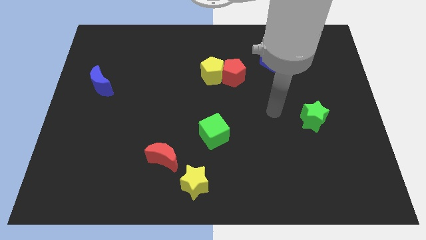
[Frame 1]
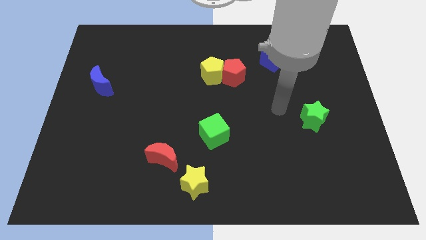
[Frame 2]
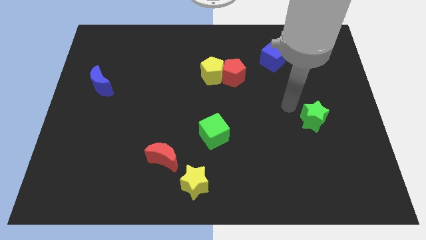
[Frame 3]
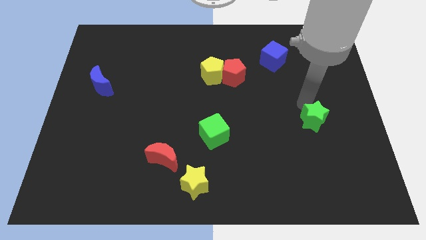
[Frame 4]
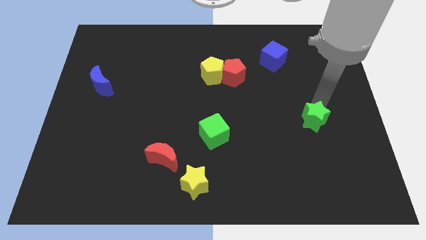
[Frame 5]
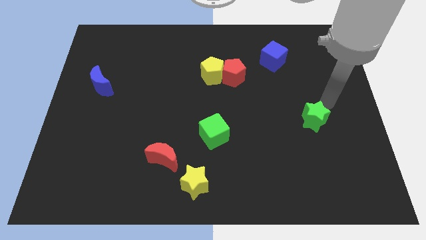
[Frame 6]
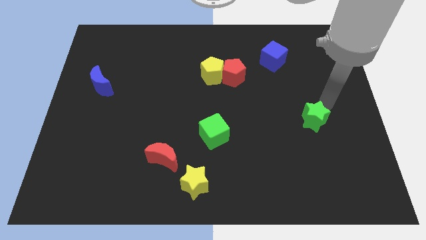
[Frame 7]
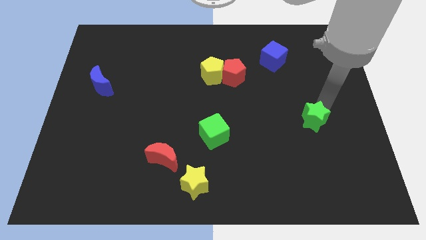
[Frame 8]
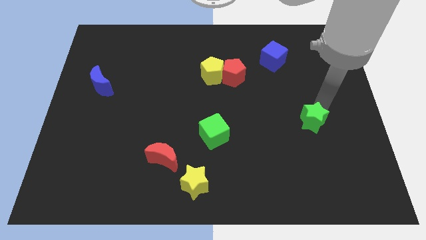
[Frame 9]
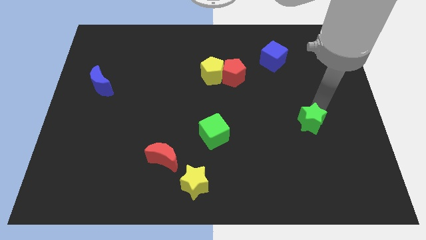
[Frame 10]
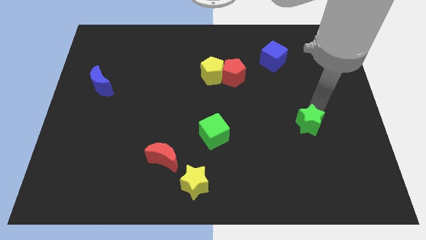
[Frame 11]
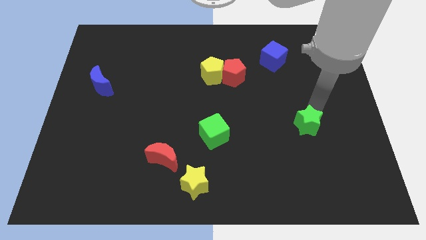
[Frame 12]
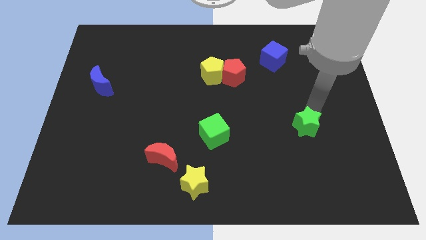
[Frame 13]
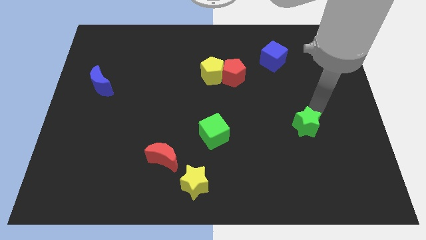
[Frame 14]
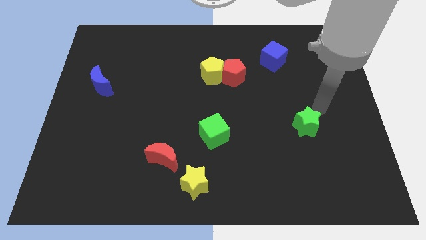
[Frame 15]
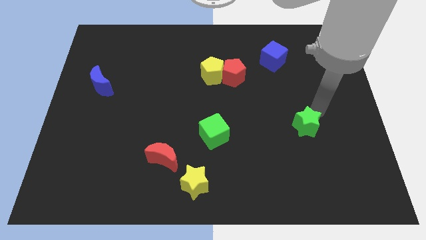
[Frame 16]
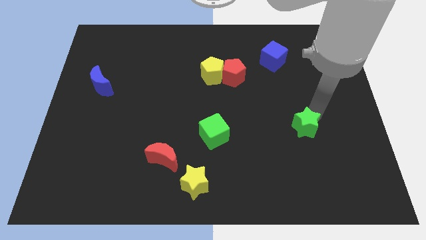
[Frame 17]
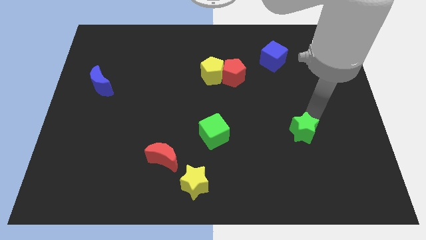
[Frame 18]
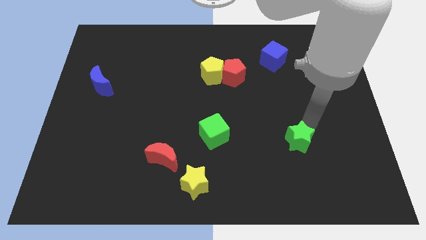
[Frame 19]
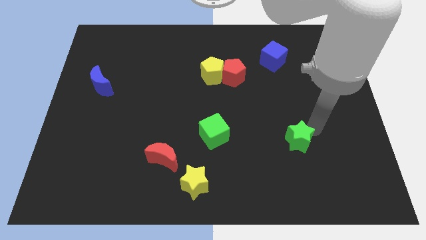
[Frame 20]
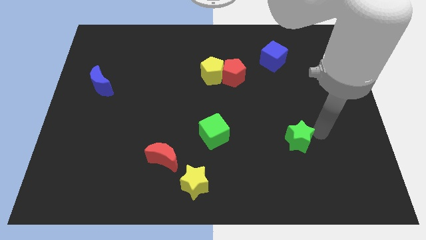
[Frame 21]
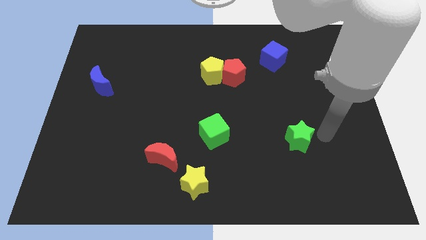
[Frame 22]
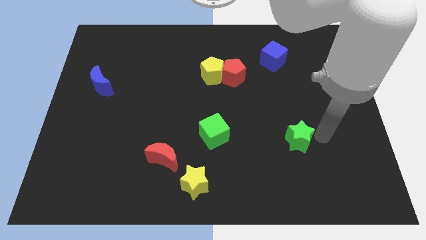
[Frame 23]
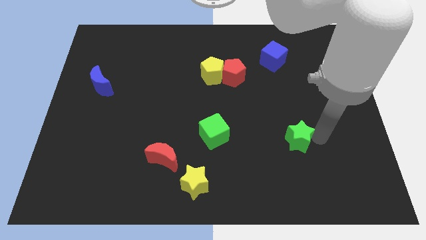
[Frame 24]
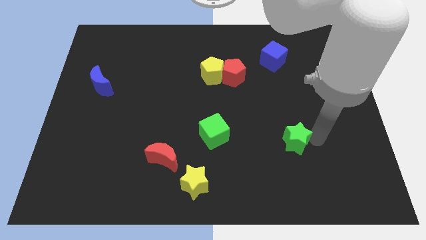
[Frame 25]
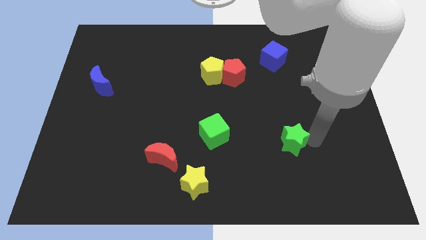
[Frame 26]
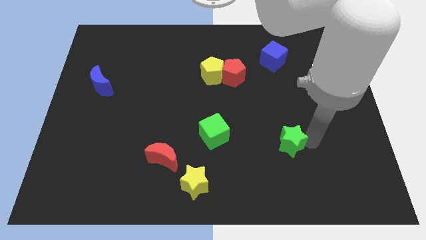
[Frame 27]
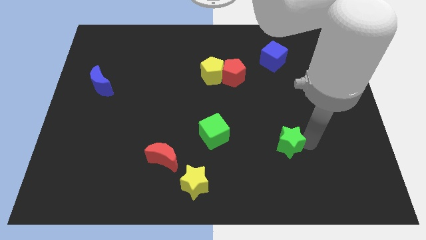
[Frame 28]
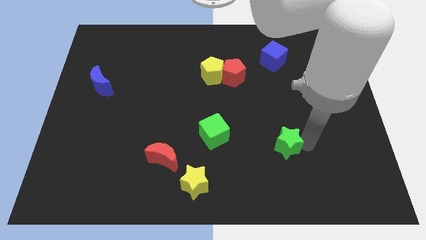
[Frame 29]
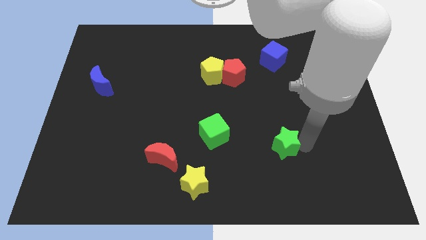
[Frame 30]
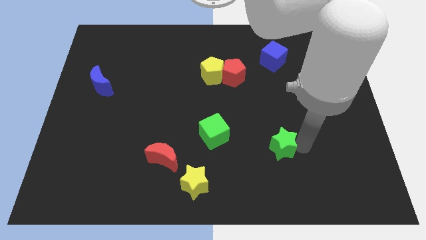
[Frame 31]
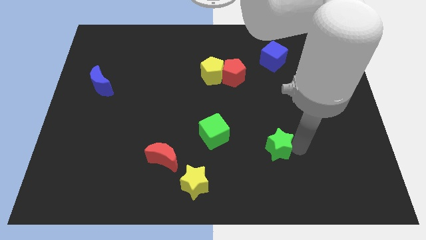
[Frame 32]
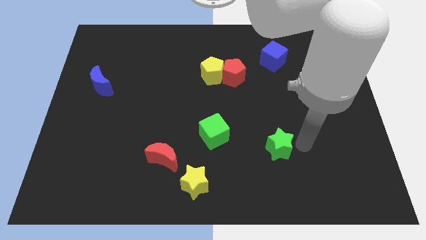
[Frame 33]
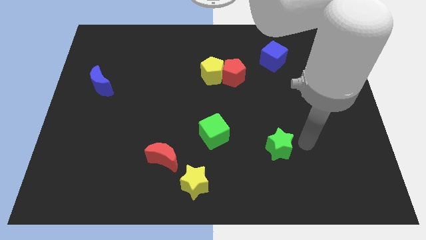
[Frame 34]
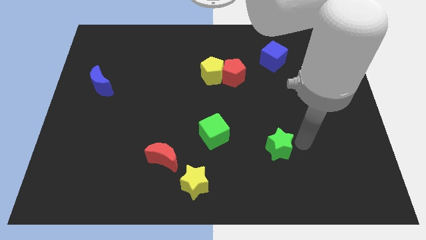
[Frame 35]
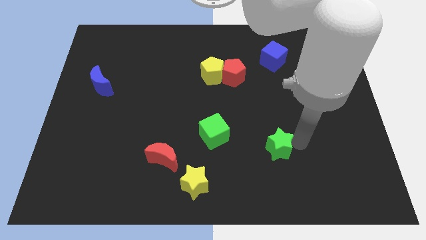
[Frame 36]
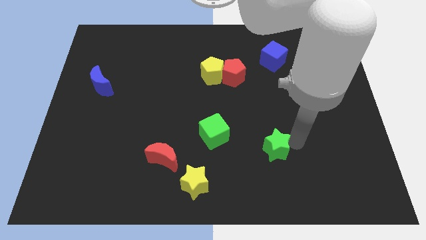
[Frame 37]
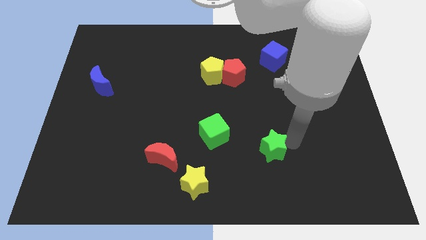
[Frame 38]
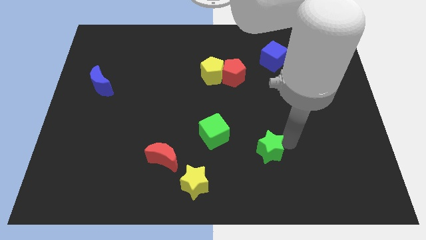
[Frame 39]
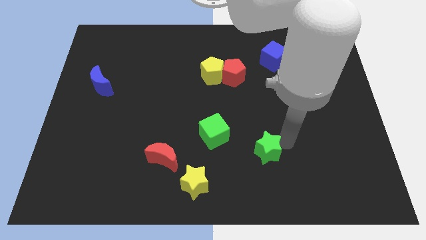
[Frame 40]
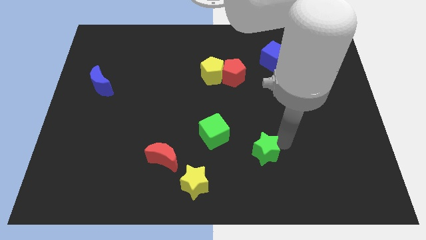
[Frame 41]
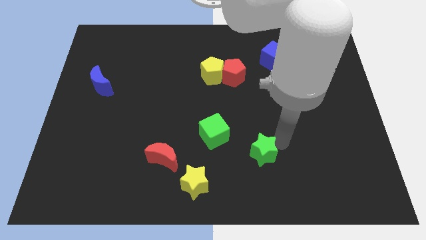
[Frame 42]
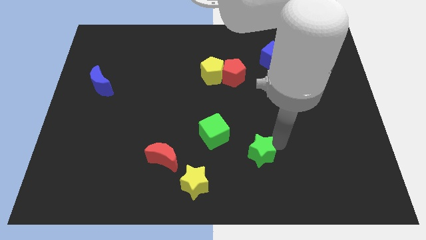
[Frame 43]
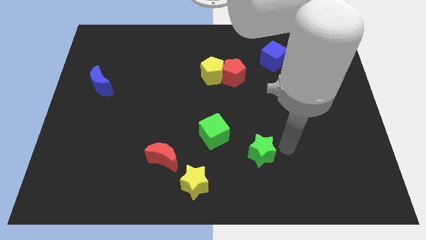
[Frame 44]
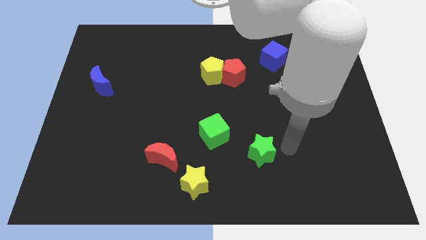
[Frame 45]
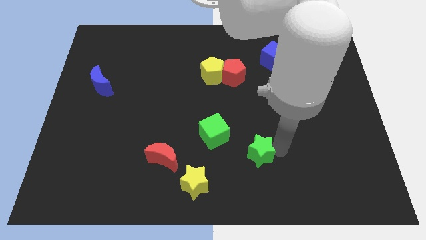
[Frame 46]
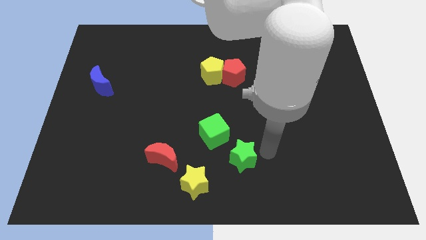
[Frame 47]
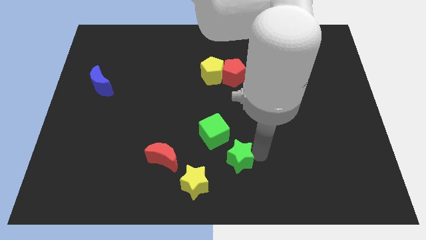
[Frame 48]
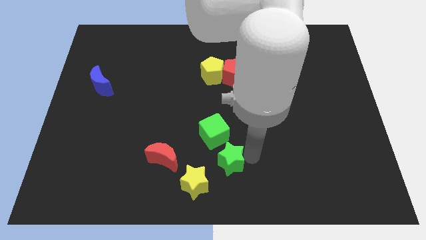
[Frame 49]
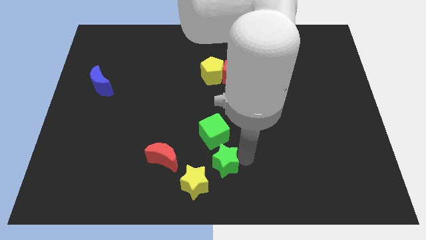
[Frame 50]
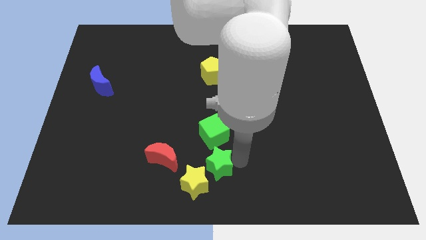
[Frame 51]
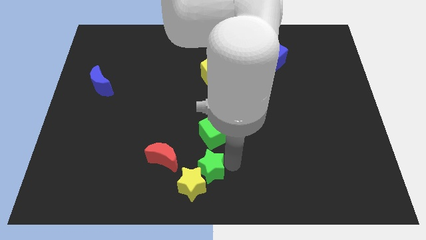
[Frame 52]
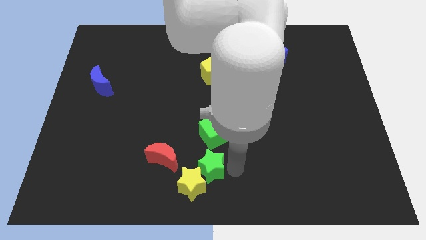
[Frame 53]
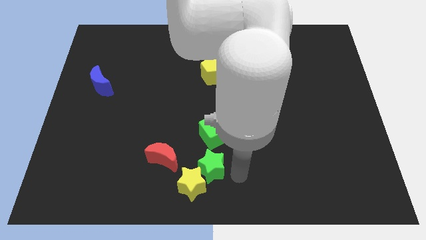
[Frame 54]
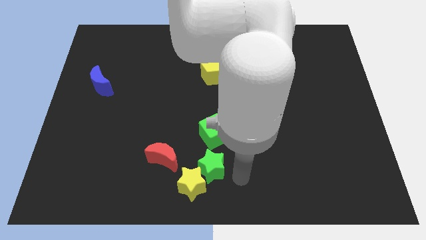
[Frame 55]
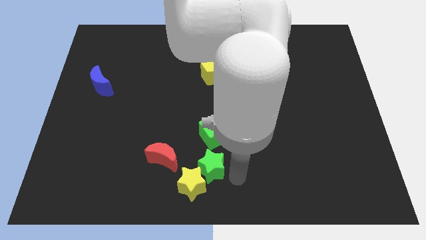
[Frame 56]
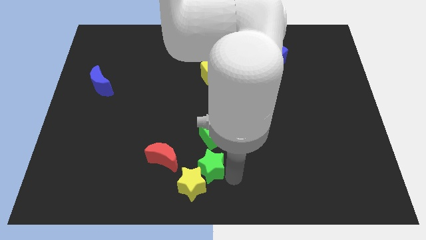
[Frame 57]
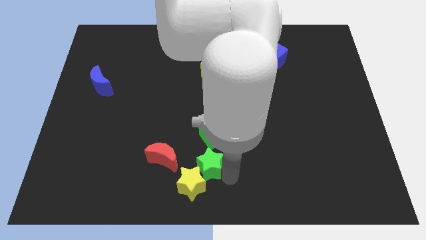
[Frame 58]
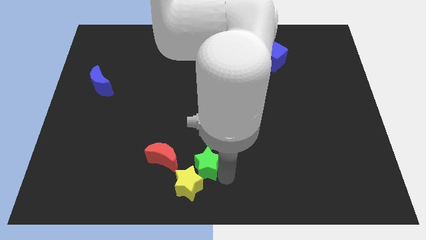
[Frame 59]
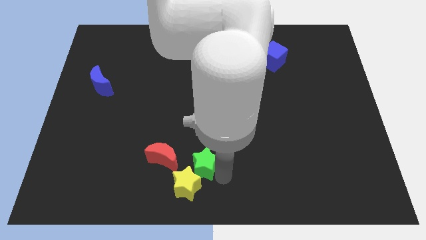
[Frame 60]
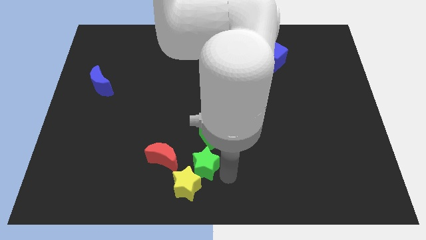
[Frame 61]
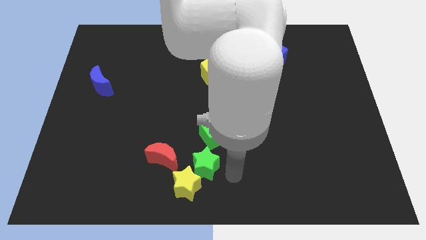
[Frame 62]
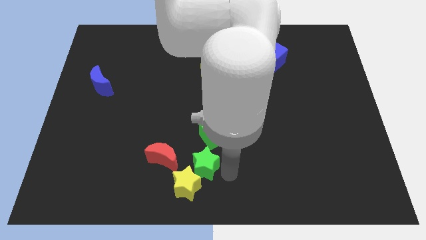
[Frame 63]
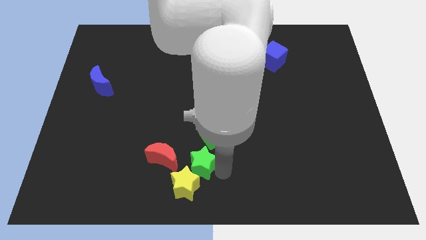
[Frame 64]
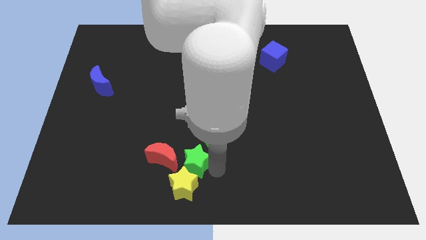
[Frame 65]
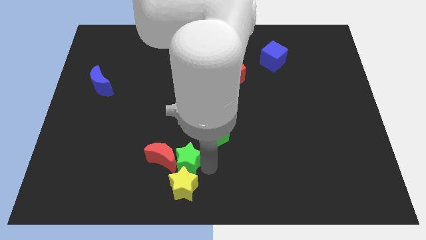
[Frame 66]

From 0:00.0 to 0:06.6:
put the green star next to the red moon

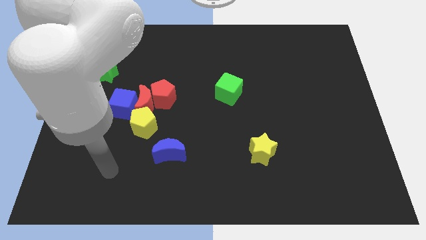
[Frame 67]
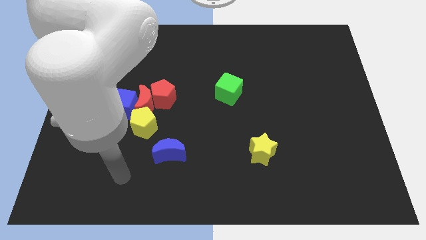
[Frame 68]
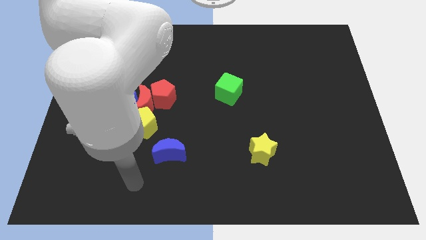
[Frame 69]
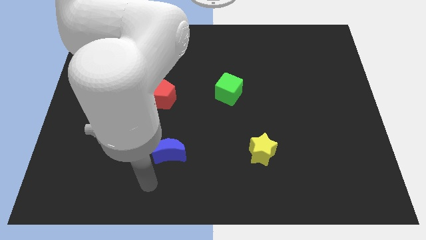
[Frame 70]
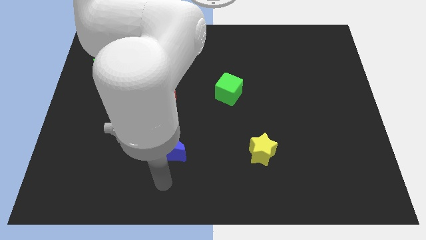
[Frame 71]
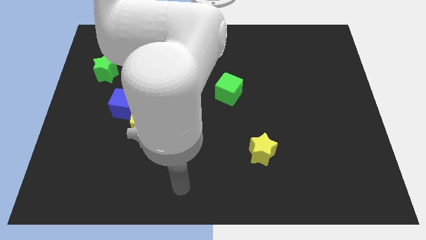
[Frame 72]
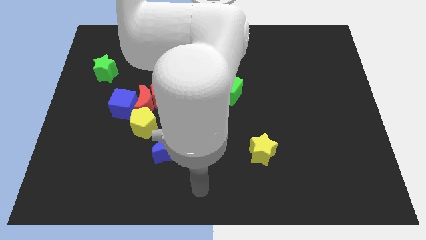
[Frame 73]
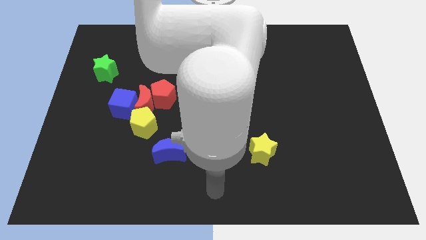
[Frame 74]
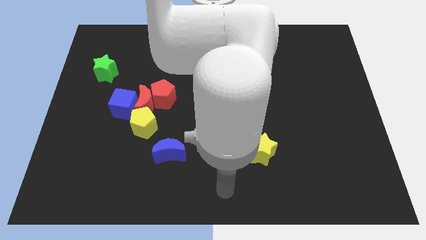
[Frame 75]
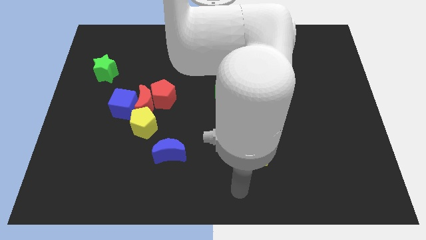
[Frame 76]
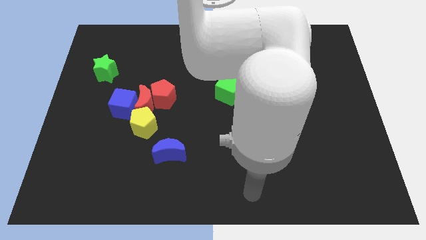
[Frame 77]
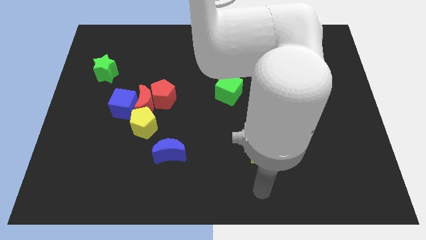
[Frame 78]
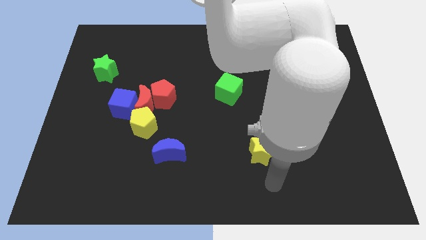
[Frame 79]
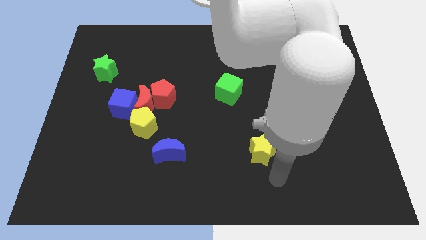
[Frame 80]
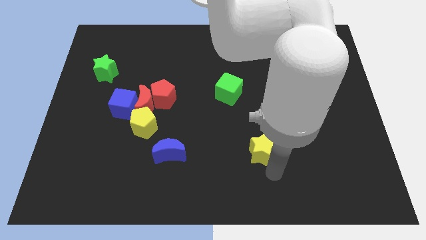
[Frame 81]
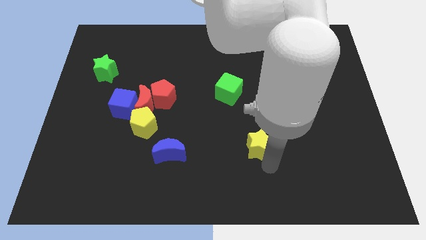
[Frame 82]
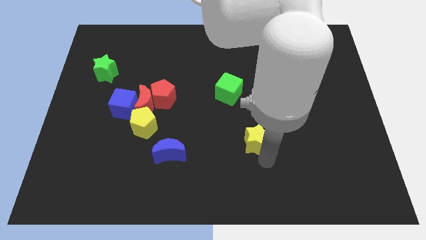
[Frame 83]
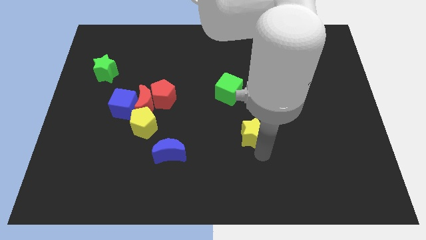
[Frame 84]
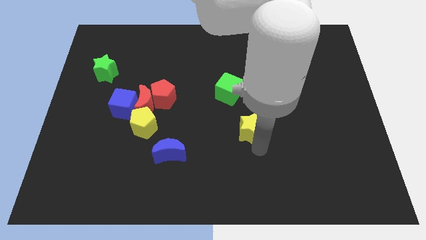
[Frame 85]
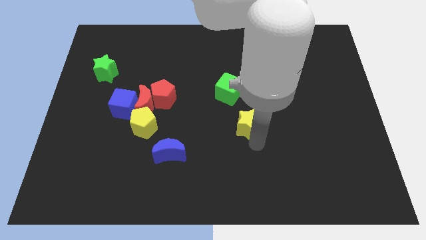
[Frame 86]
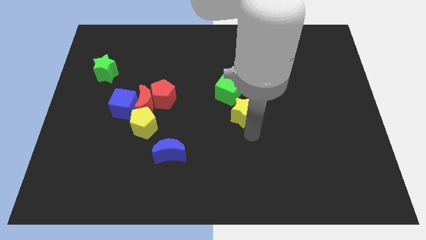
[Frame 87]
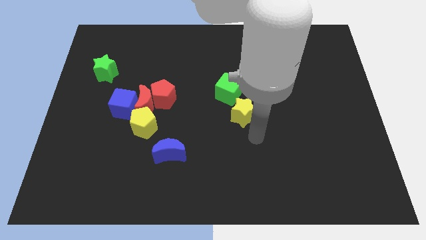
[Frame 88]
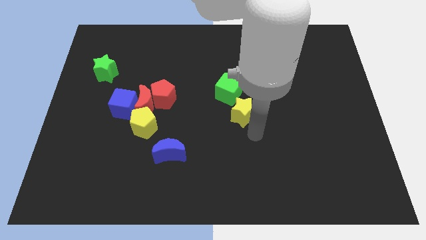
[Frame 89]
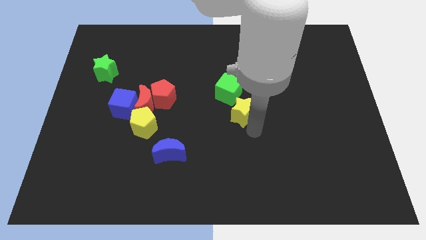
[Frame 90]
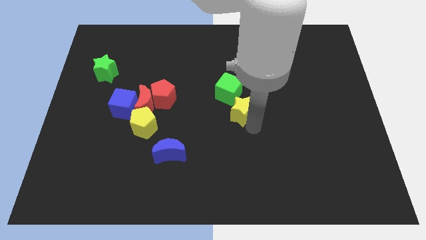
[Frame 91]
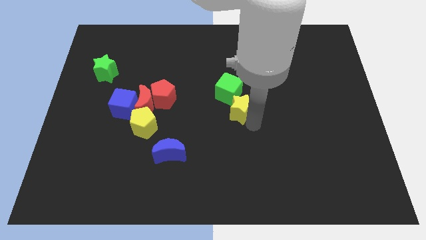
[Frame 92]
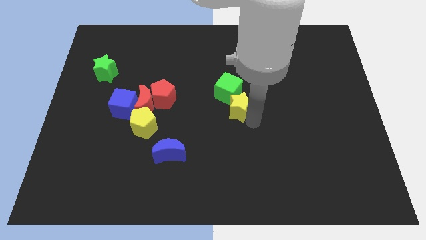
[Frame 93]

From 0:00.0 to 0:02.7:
put the yellow star close to the green cube
